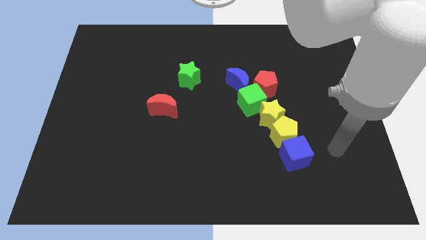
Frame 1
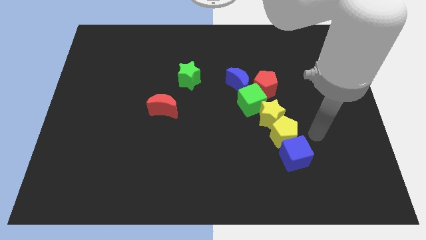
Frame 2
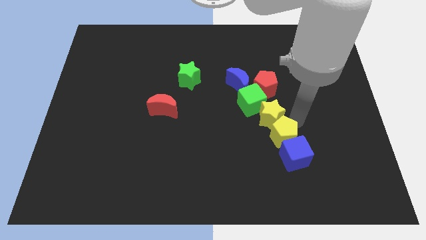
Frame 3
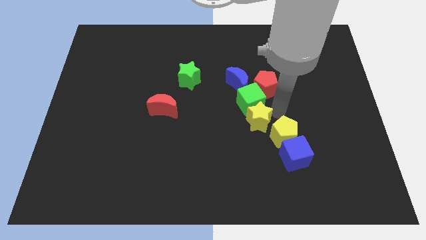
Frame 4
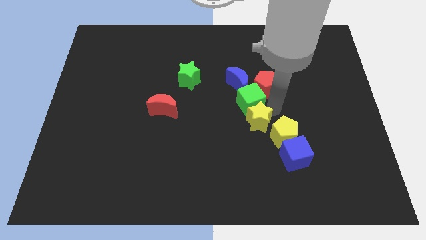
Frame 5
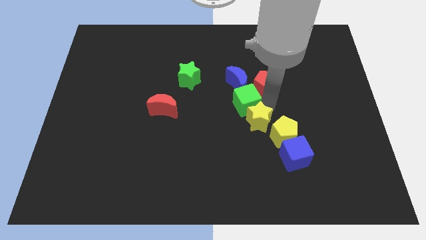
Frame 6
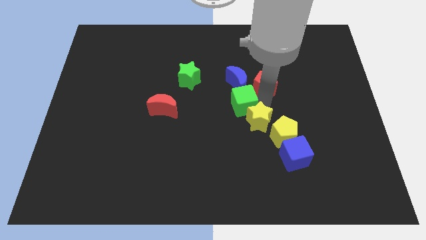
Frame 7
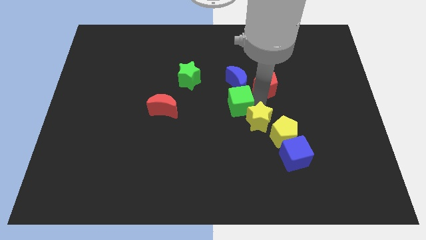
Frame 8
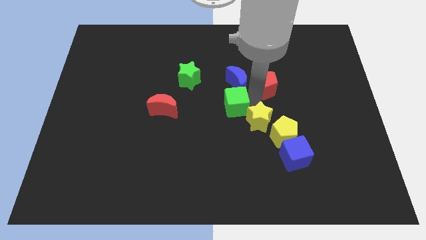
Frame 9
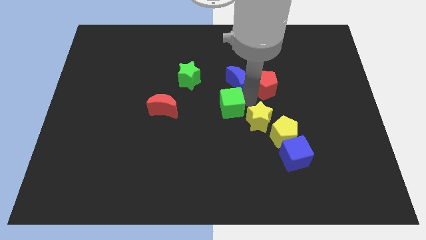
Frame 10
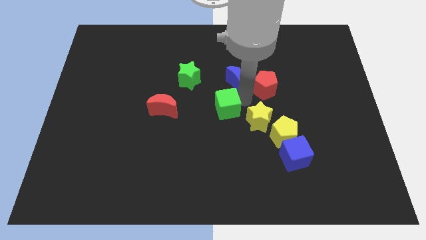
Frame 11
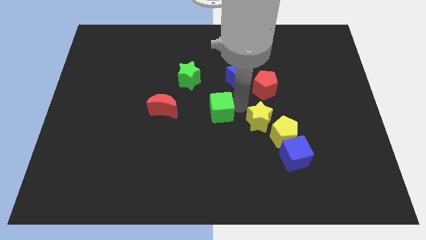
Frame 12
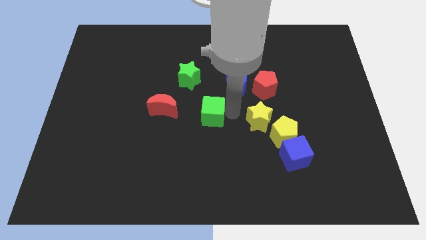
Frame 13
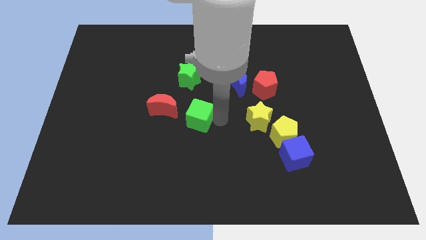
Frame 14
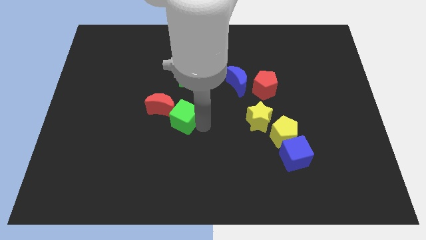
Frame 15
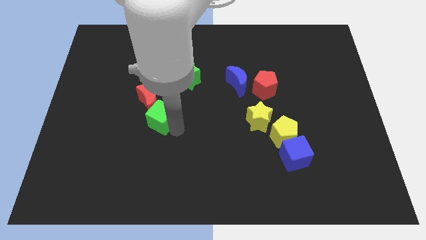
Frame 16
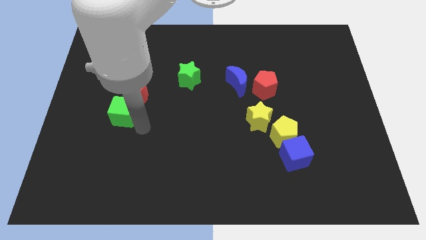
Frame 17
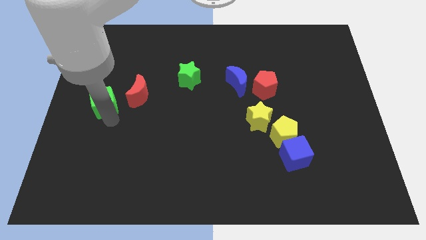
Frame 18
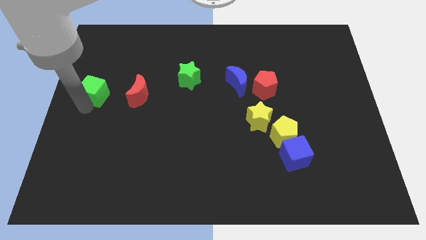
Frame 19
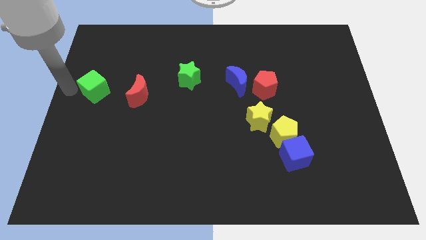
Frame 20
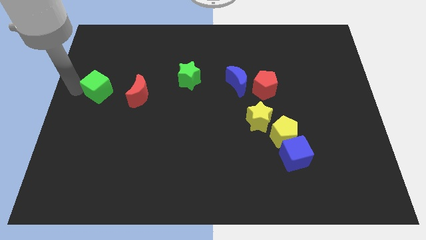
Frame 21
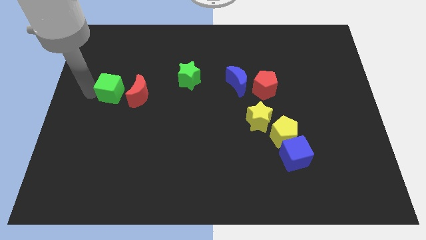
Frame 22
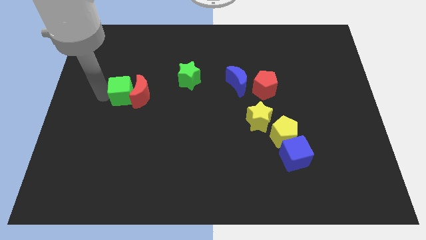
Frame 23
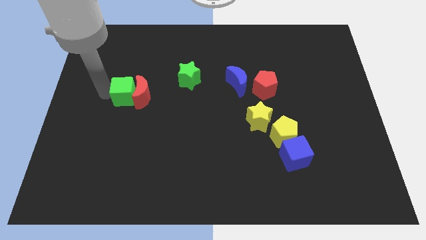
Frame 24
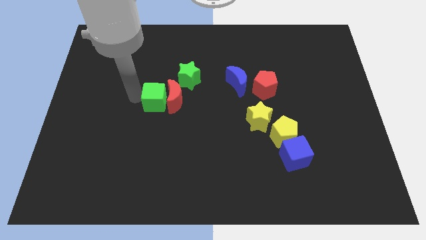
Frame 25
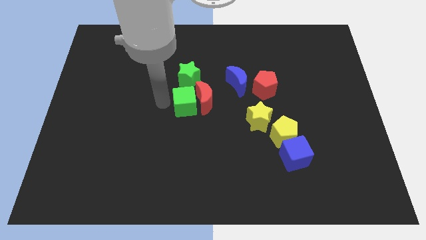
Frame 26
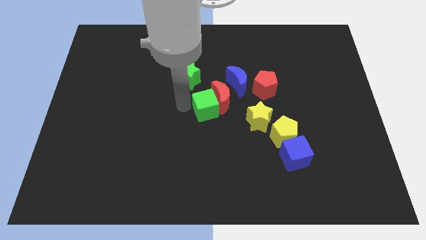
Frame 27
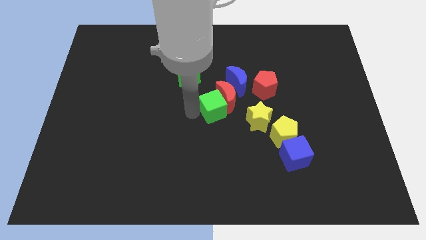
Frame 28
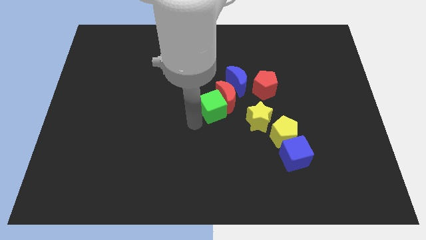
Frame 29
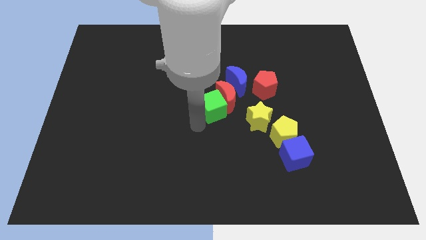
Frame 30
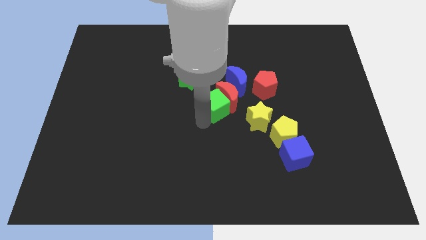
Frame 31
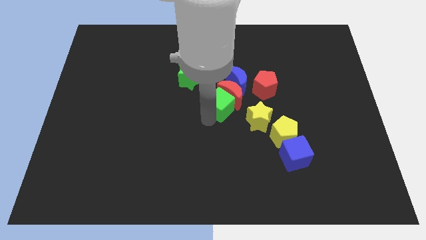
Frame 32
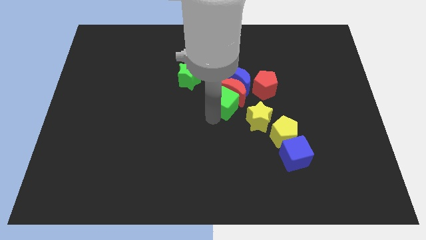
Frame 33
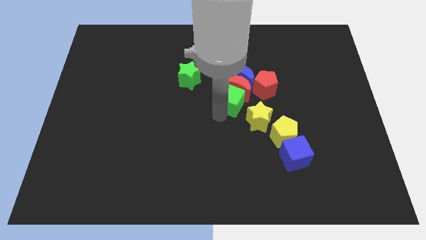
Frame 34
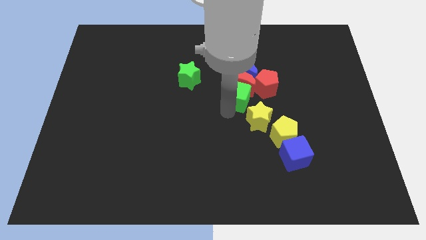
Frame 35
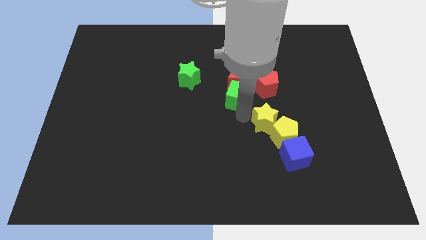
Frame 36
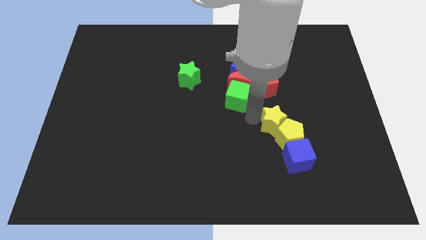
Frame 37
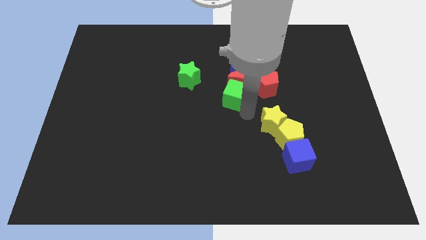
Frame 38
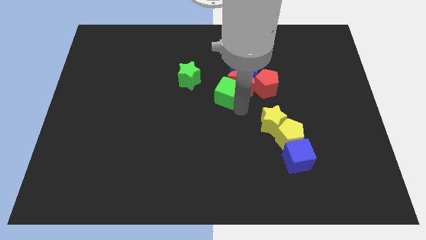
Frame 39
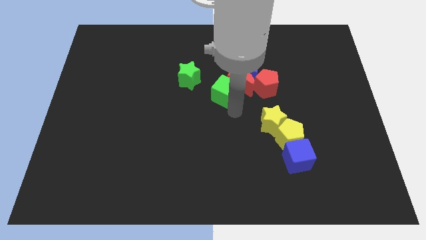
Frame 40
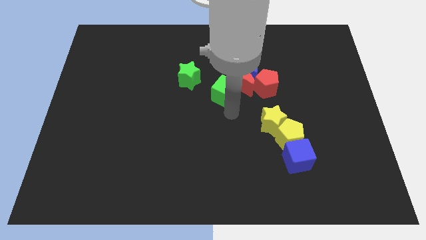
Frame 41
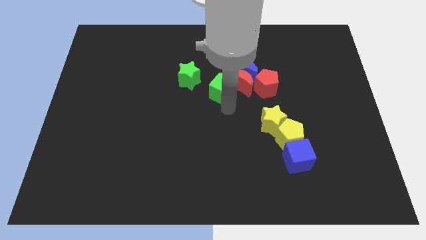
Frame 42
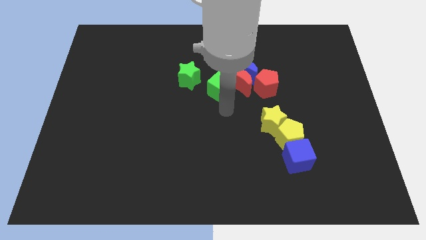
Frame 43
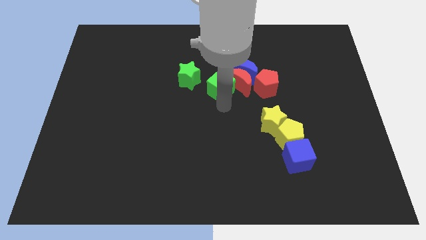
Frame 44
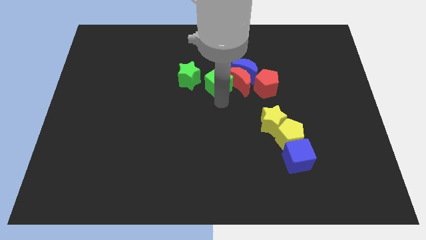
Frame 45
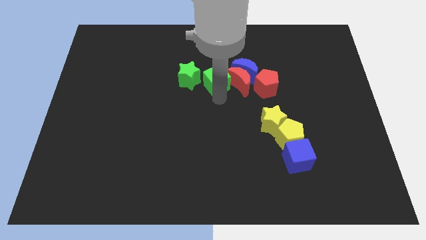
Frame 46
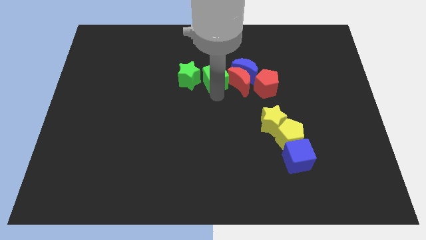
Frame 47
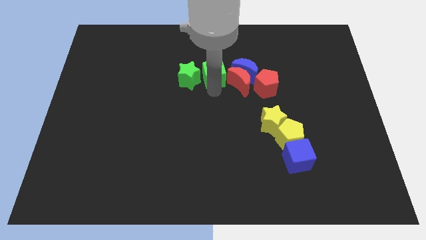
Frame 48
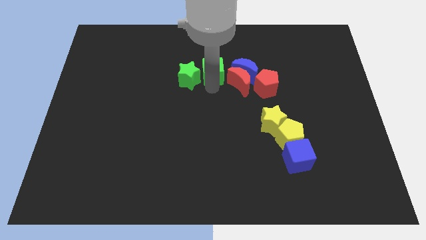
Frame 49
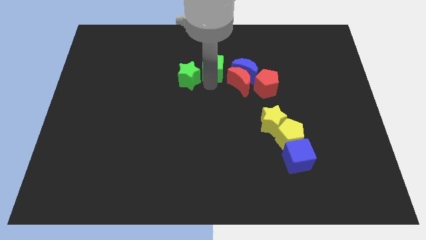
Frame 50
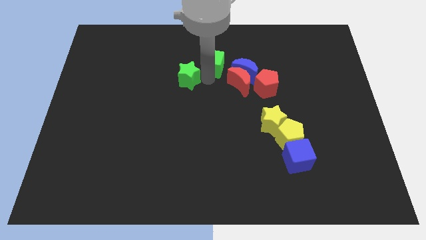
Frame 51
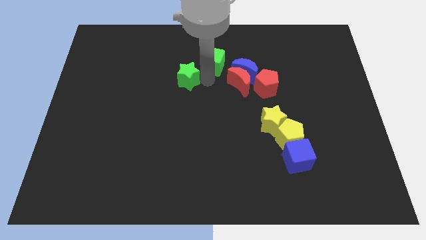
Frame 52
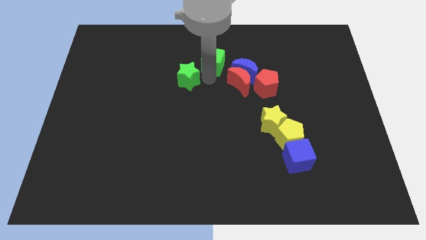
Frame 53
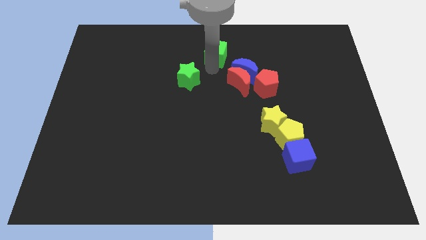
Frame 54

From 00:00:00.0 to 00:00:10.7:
push the green cube to the top side
